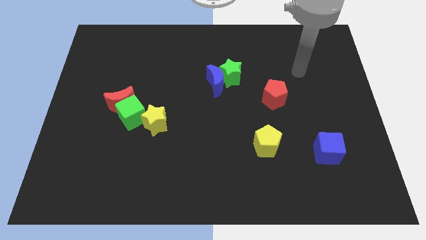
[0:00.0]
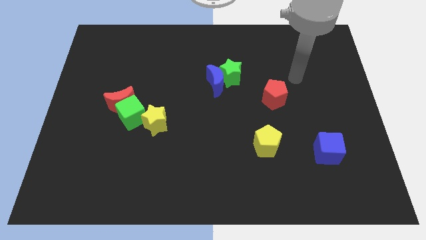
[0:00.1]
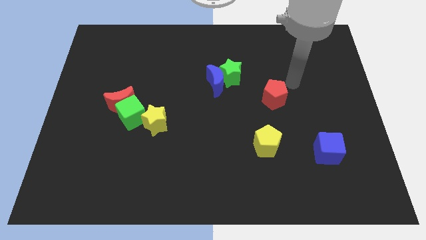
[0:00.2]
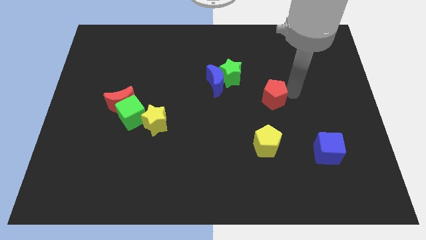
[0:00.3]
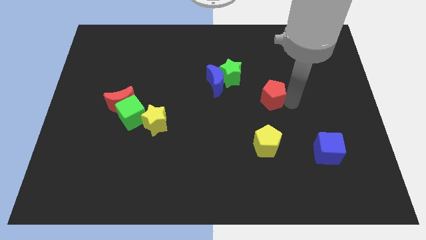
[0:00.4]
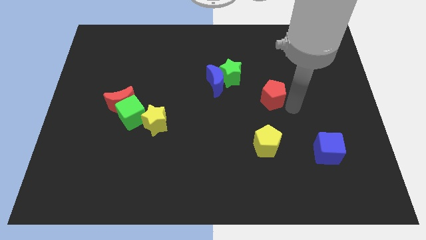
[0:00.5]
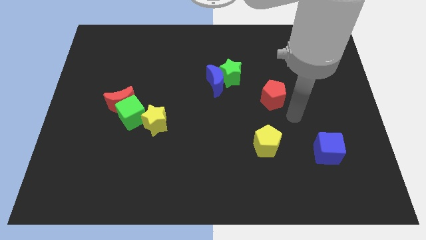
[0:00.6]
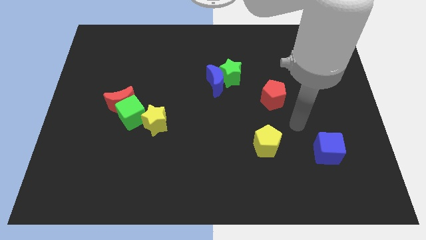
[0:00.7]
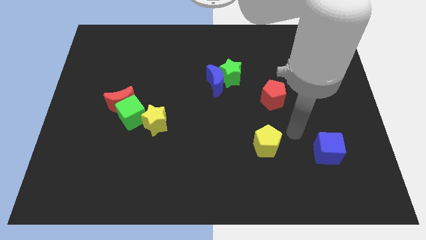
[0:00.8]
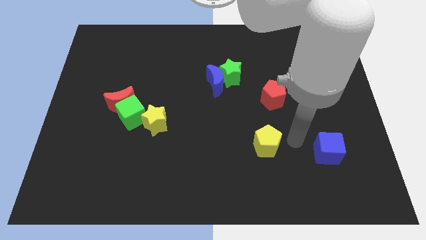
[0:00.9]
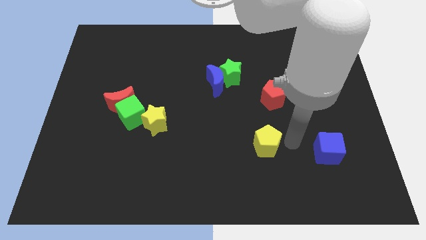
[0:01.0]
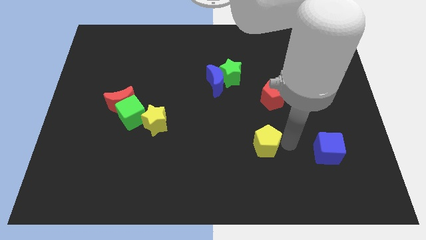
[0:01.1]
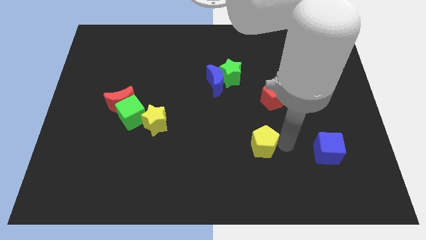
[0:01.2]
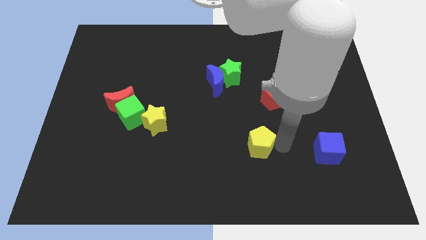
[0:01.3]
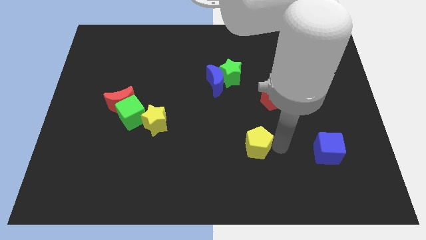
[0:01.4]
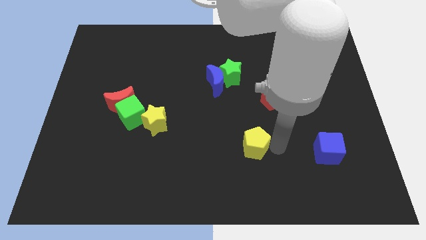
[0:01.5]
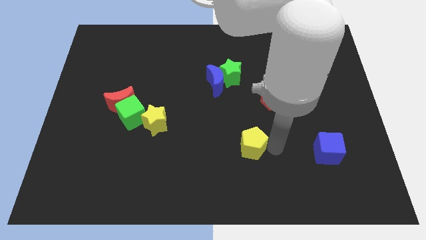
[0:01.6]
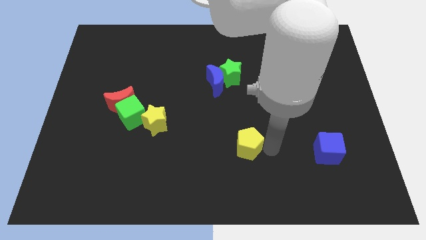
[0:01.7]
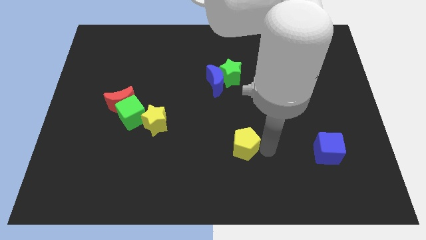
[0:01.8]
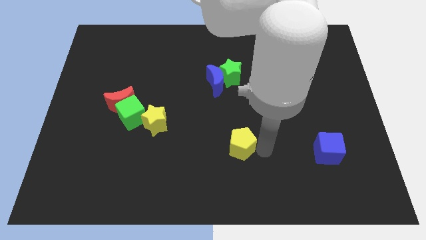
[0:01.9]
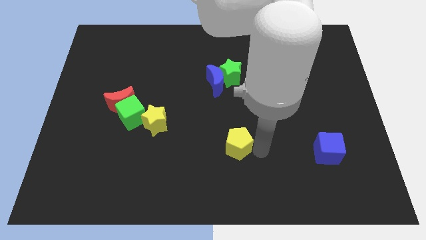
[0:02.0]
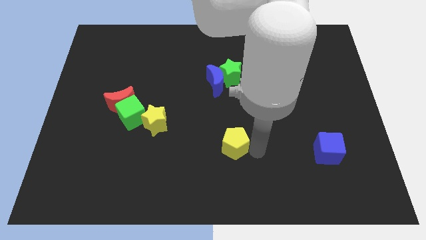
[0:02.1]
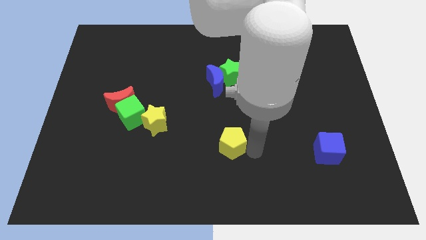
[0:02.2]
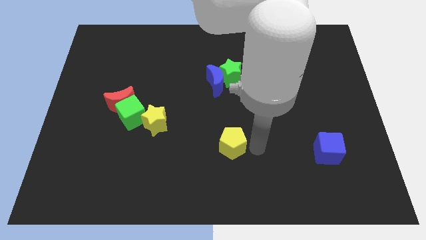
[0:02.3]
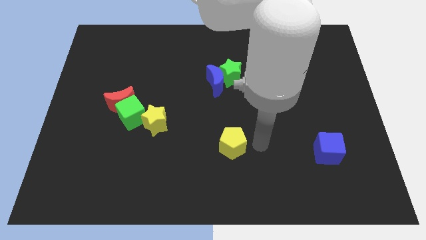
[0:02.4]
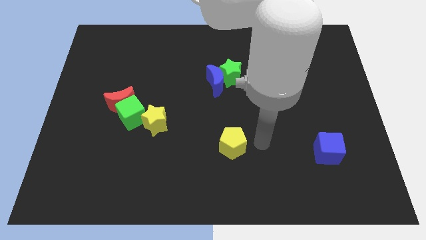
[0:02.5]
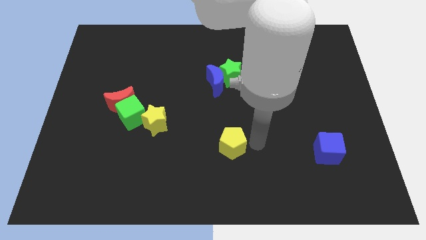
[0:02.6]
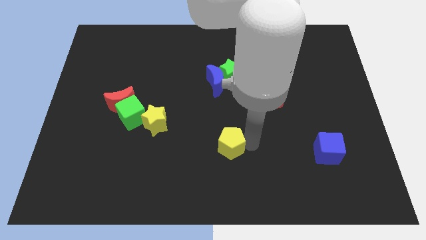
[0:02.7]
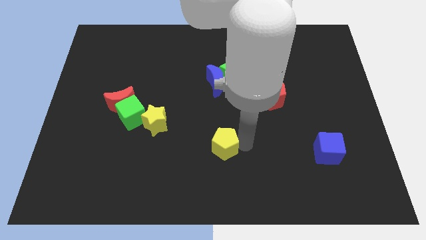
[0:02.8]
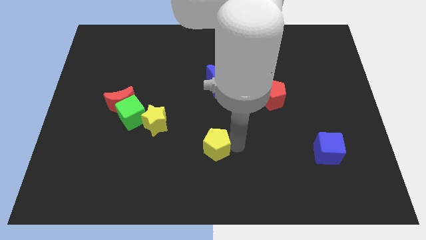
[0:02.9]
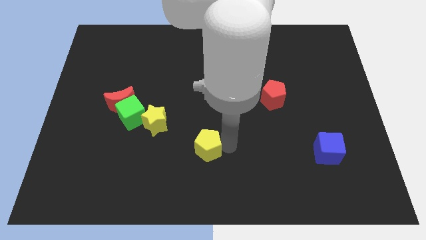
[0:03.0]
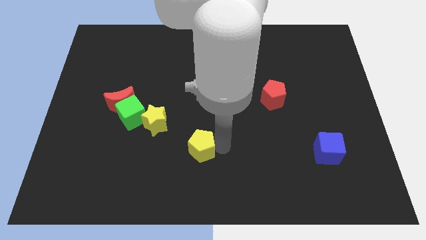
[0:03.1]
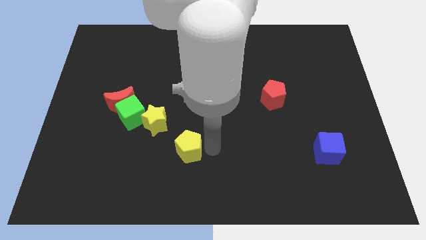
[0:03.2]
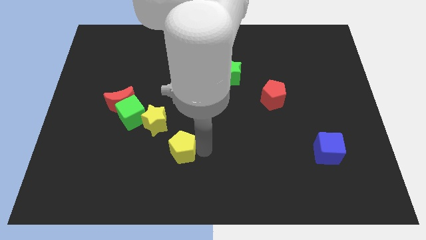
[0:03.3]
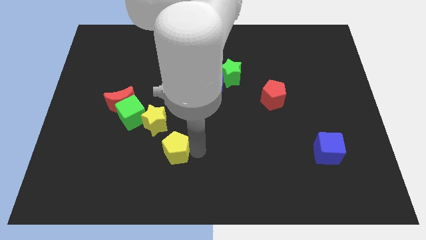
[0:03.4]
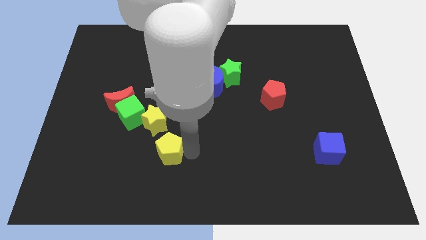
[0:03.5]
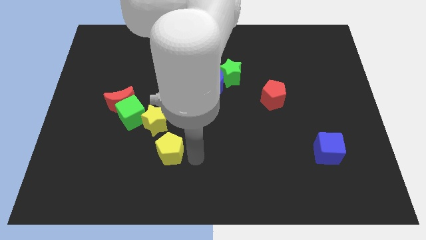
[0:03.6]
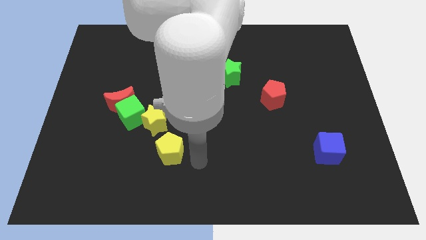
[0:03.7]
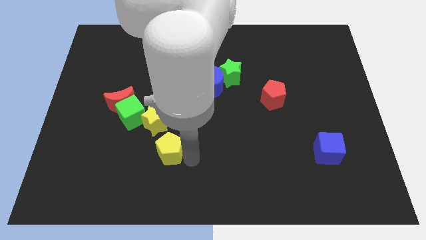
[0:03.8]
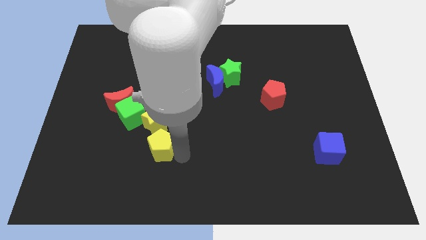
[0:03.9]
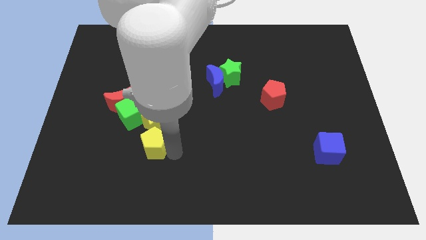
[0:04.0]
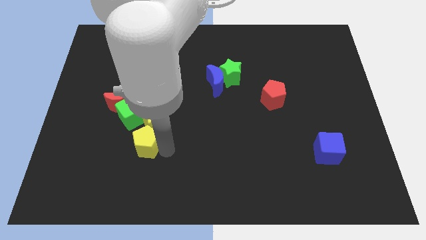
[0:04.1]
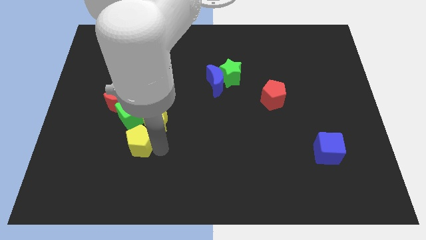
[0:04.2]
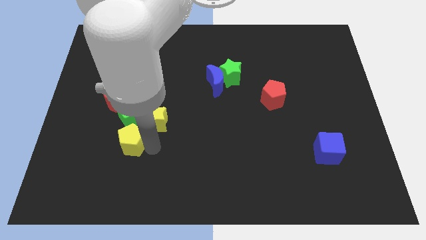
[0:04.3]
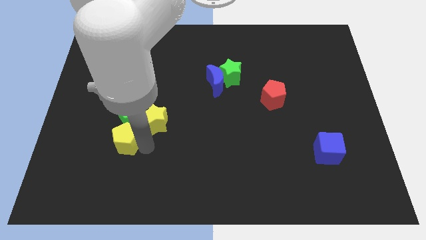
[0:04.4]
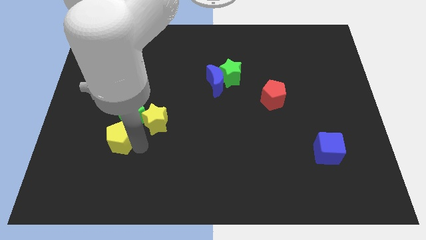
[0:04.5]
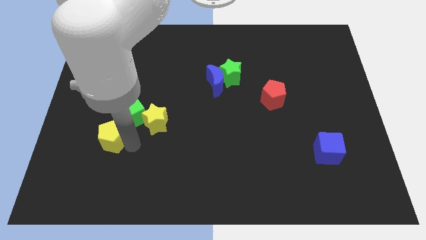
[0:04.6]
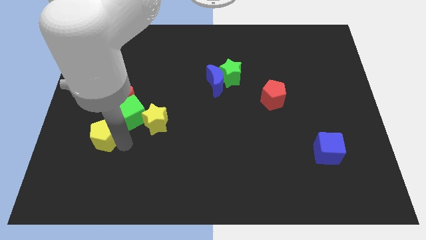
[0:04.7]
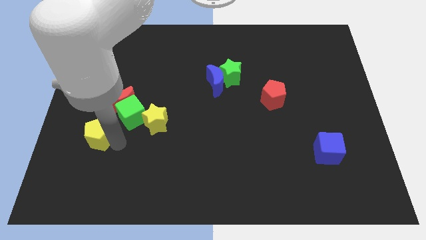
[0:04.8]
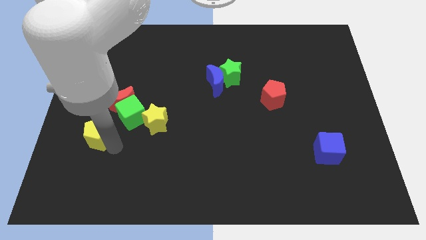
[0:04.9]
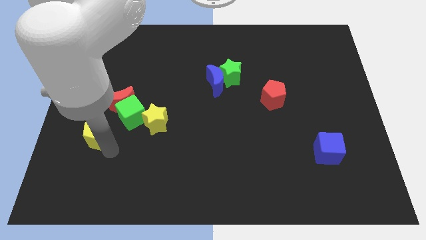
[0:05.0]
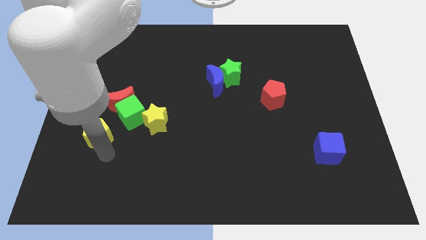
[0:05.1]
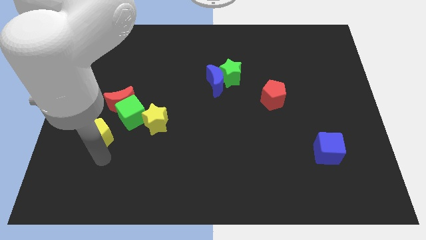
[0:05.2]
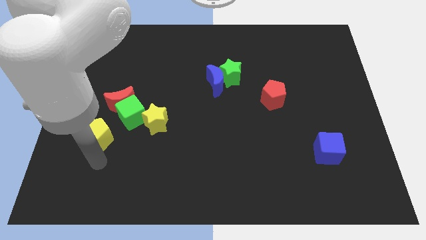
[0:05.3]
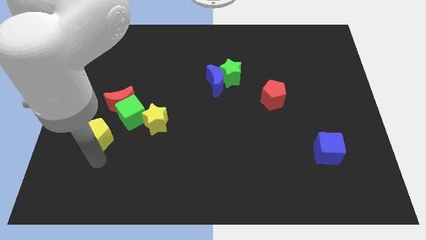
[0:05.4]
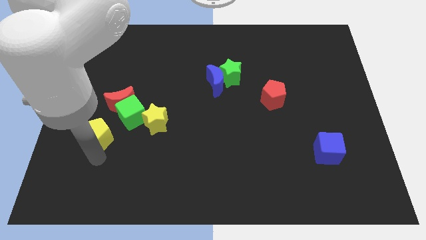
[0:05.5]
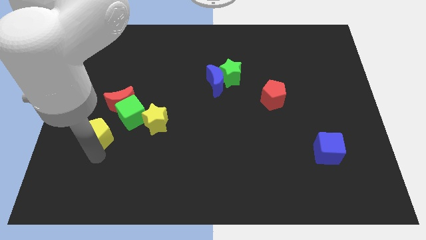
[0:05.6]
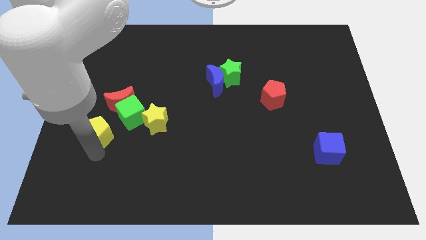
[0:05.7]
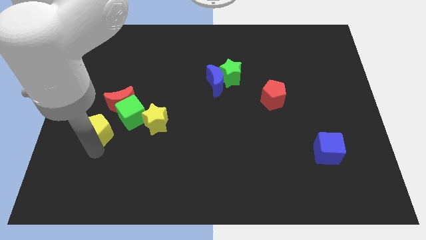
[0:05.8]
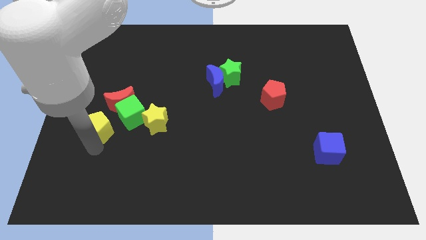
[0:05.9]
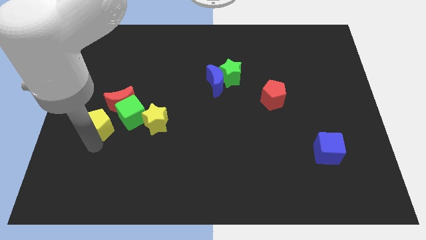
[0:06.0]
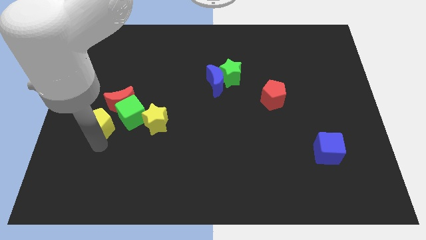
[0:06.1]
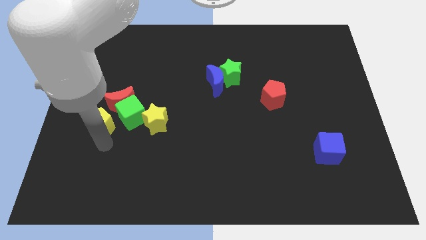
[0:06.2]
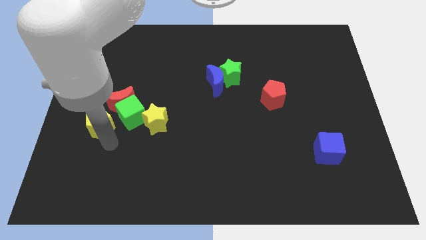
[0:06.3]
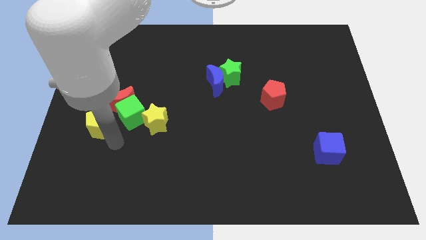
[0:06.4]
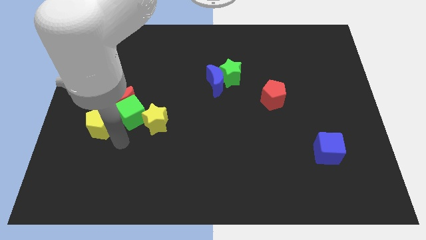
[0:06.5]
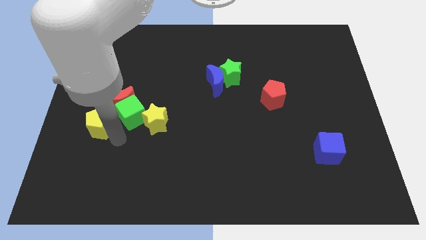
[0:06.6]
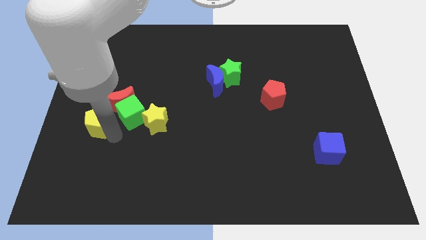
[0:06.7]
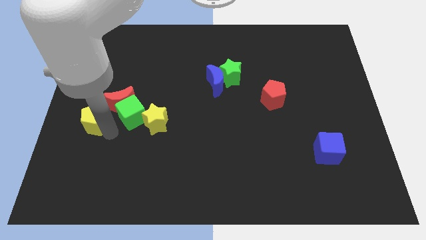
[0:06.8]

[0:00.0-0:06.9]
move the yellow pentagon to the left side

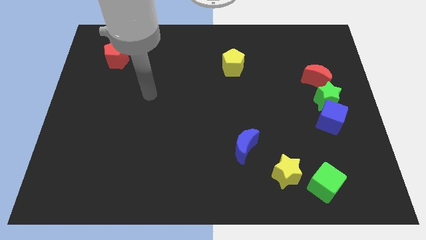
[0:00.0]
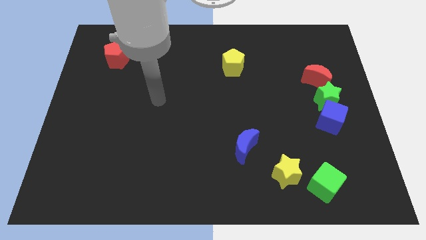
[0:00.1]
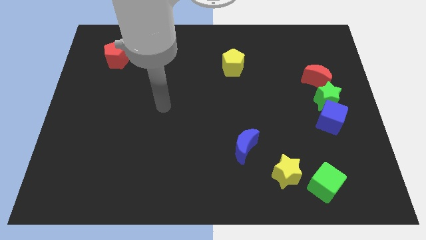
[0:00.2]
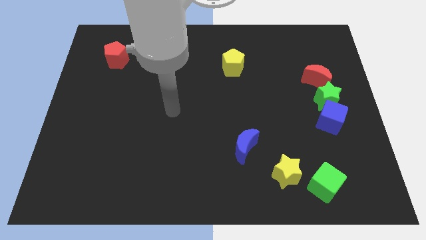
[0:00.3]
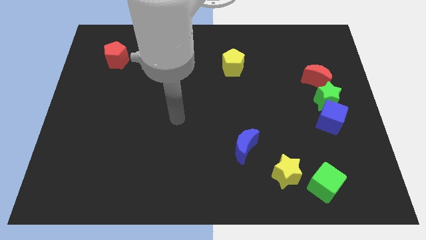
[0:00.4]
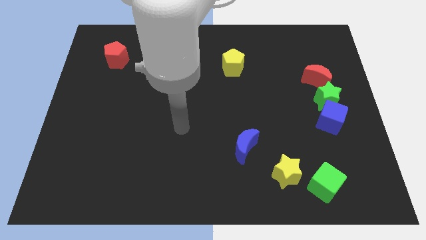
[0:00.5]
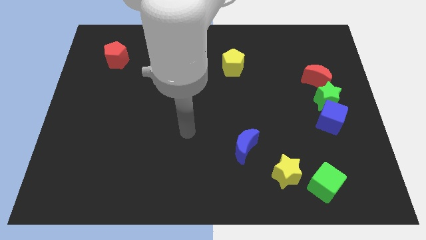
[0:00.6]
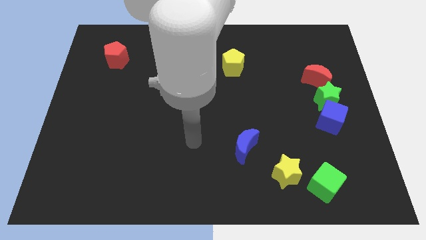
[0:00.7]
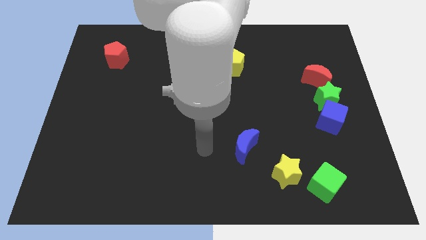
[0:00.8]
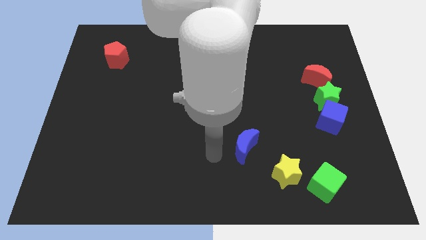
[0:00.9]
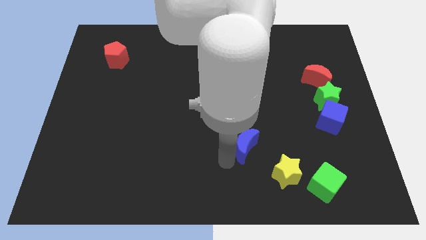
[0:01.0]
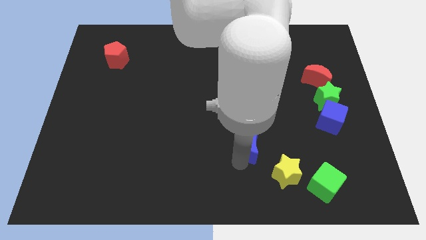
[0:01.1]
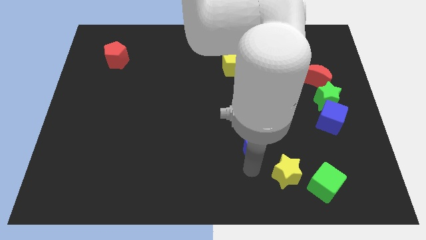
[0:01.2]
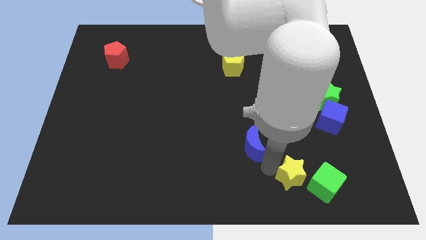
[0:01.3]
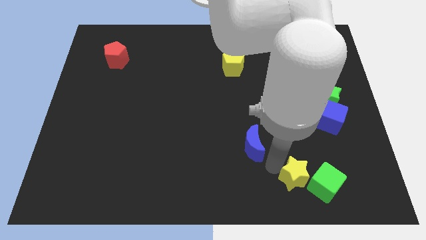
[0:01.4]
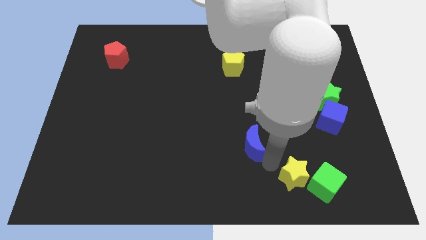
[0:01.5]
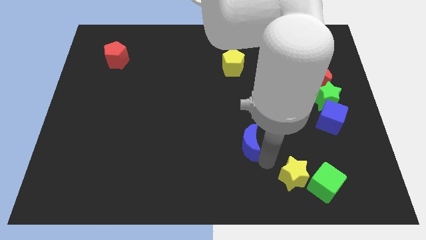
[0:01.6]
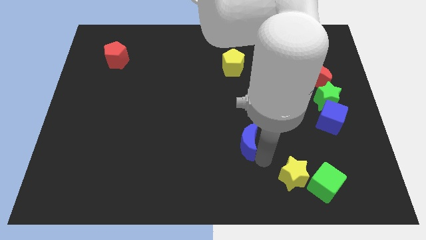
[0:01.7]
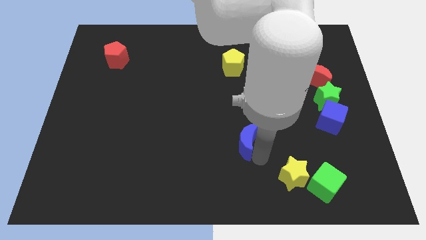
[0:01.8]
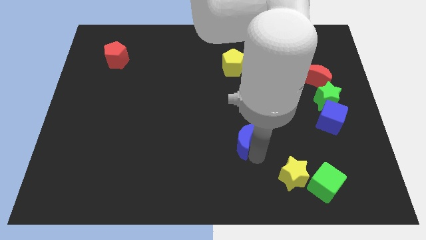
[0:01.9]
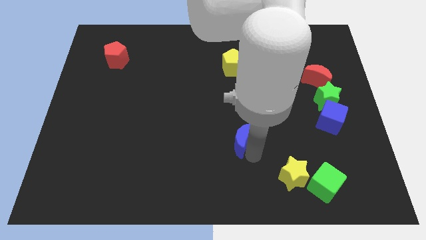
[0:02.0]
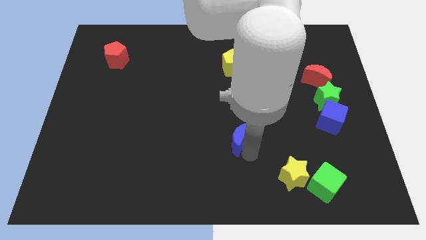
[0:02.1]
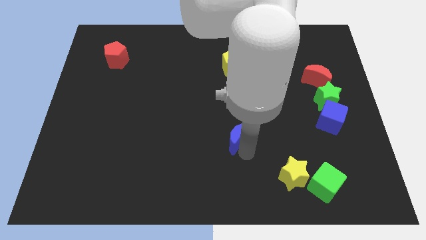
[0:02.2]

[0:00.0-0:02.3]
slide the blue moon to the center
